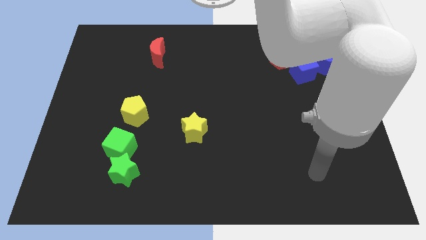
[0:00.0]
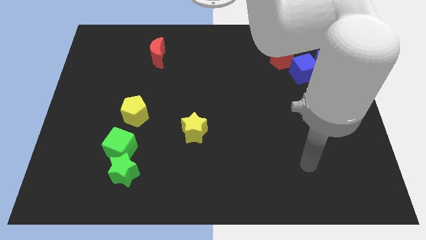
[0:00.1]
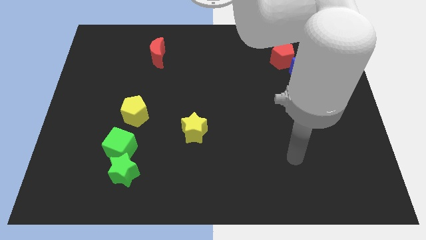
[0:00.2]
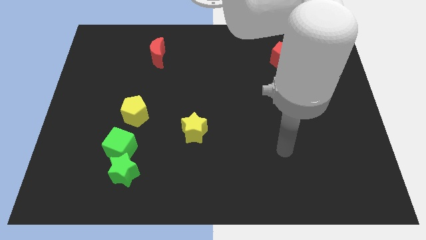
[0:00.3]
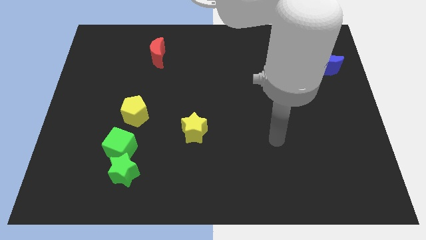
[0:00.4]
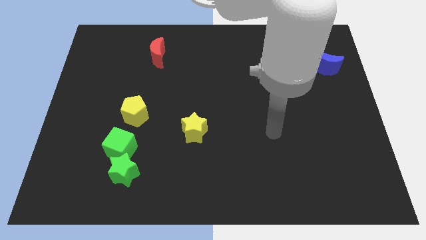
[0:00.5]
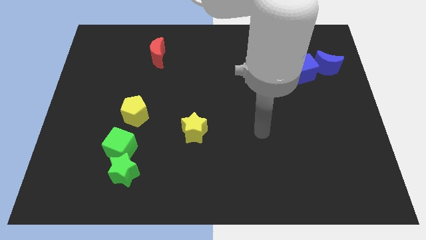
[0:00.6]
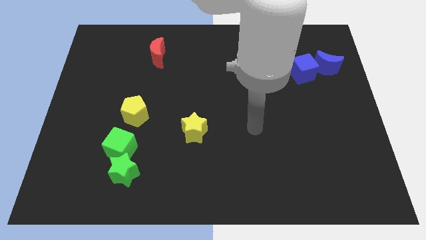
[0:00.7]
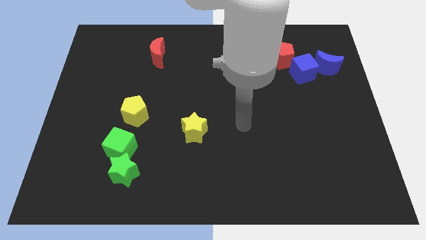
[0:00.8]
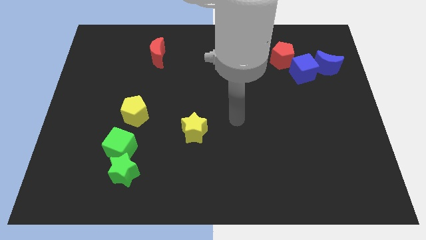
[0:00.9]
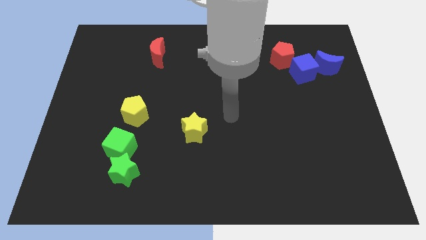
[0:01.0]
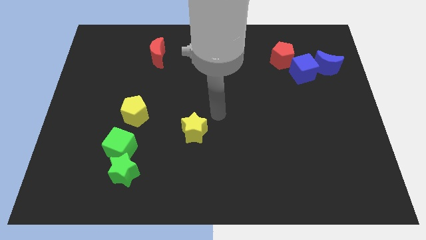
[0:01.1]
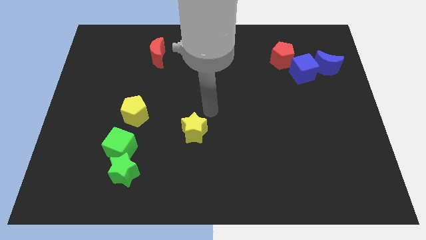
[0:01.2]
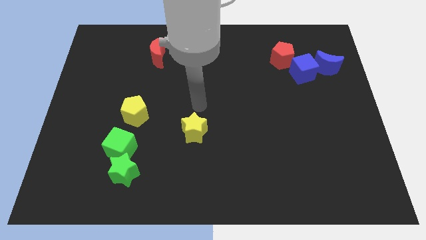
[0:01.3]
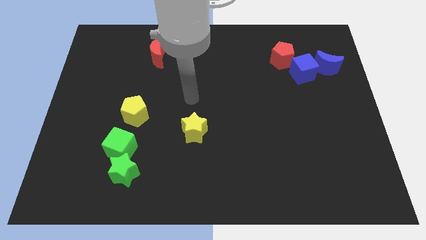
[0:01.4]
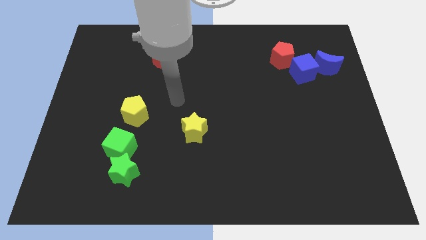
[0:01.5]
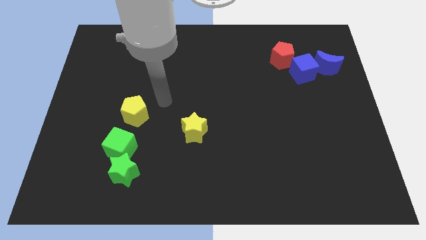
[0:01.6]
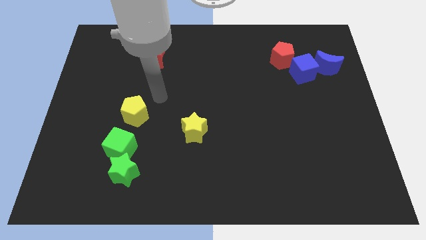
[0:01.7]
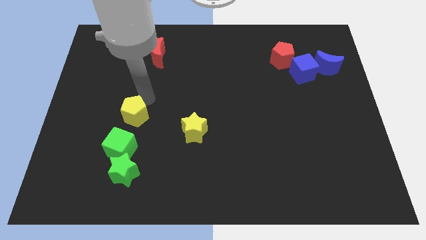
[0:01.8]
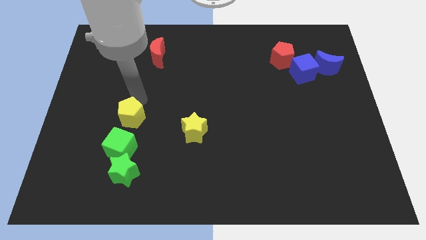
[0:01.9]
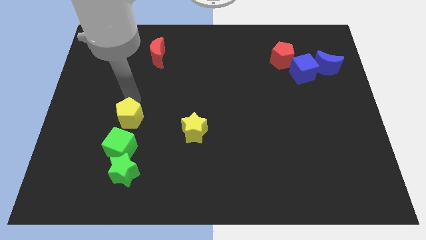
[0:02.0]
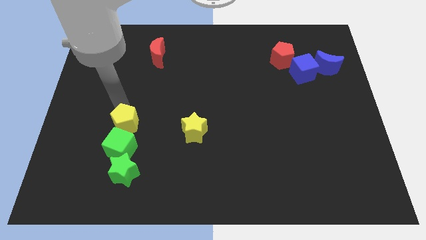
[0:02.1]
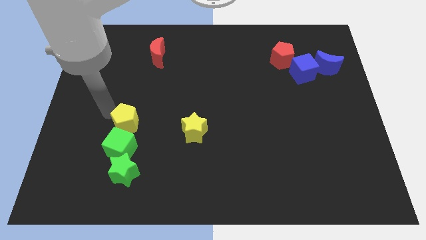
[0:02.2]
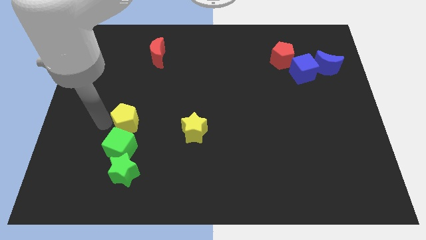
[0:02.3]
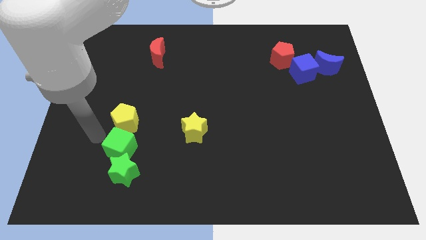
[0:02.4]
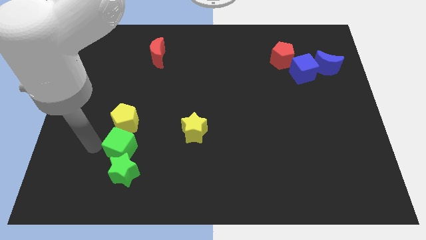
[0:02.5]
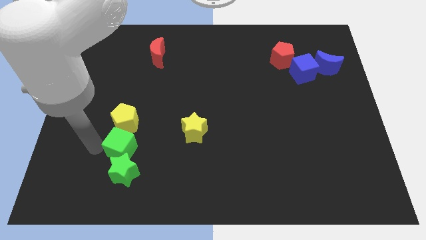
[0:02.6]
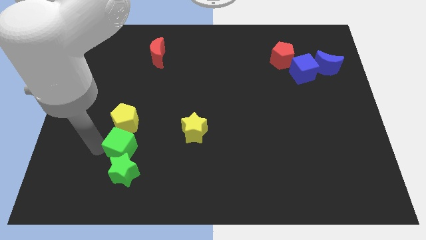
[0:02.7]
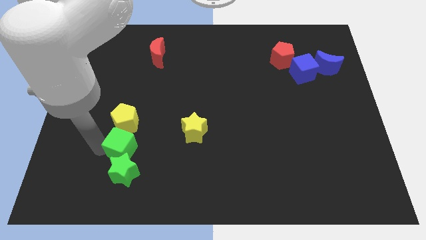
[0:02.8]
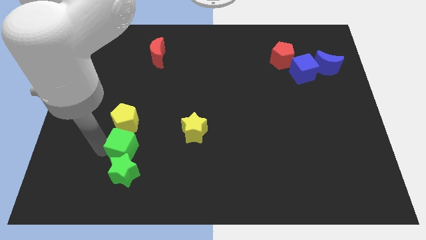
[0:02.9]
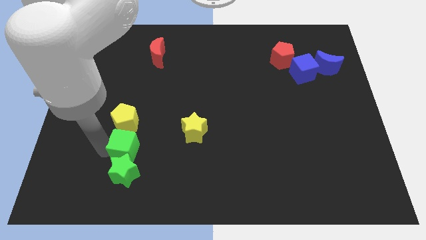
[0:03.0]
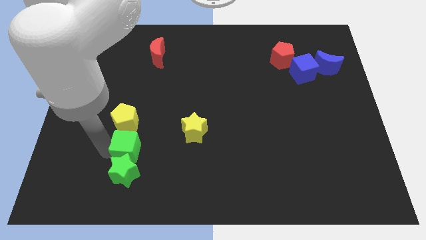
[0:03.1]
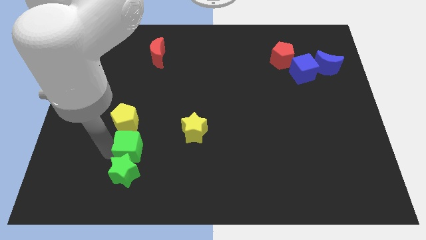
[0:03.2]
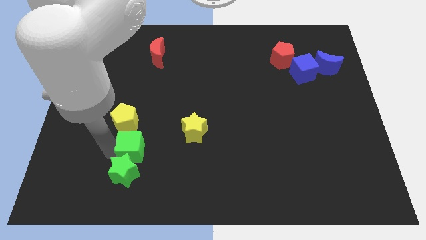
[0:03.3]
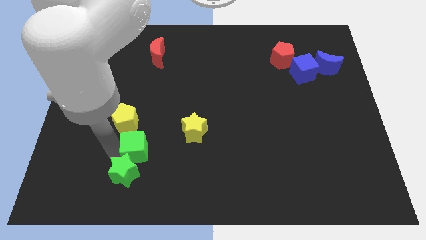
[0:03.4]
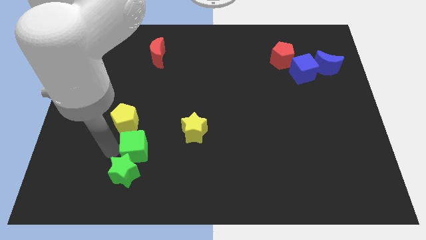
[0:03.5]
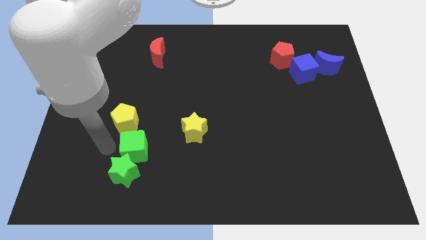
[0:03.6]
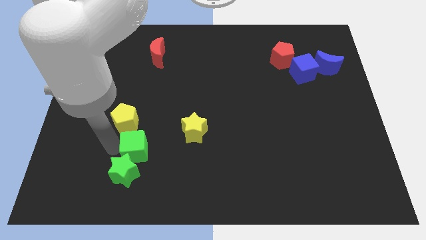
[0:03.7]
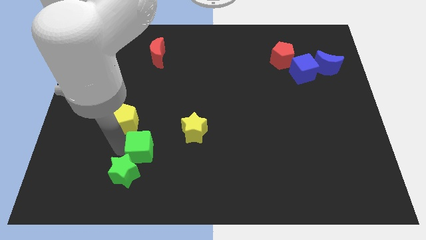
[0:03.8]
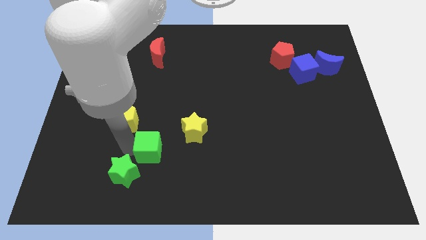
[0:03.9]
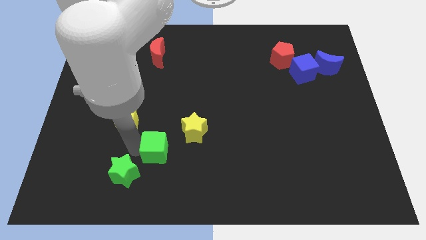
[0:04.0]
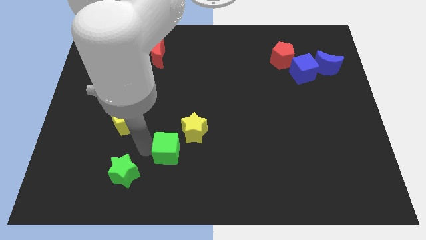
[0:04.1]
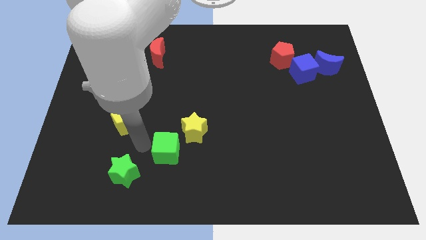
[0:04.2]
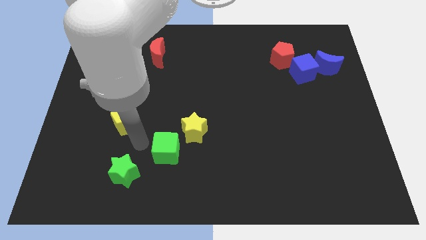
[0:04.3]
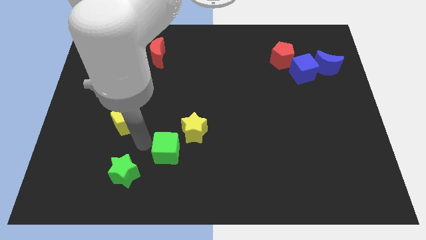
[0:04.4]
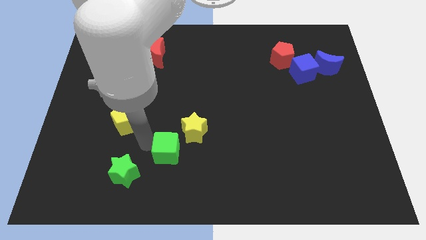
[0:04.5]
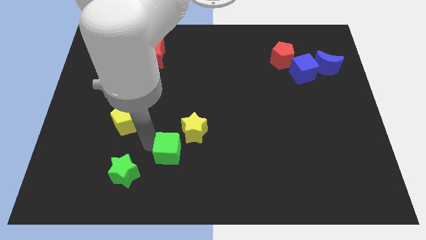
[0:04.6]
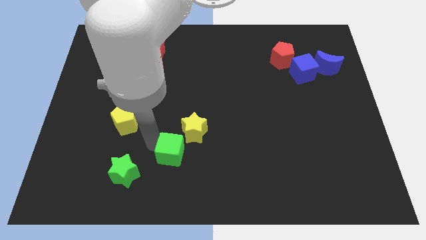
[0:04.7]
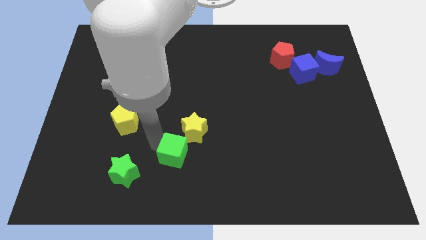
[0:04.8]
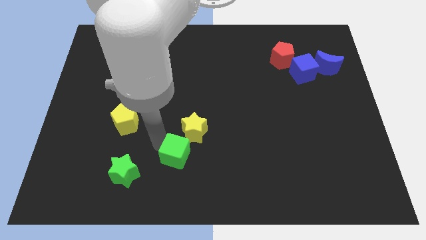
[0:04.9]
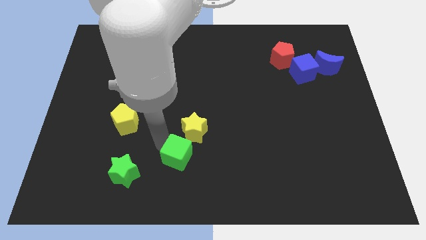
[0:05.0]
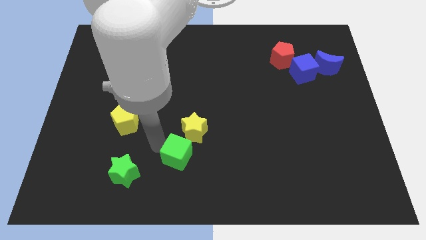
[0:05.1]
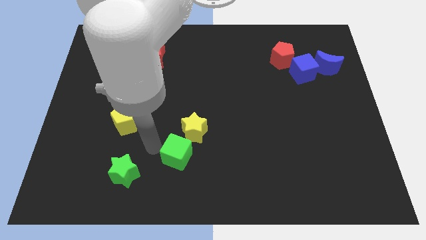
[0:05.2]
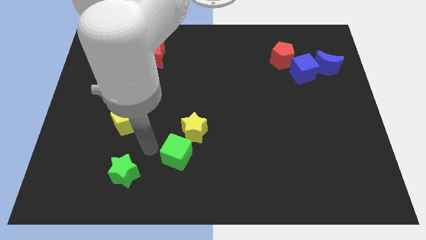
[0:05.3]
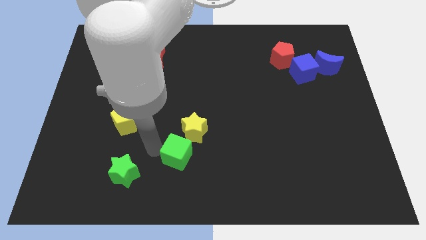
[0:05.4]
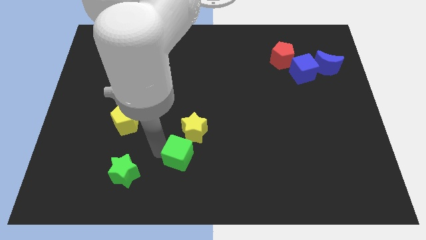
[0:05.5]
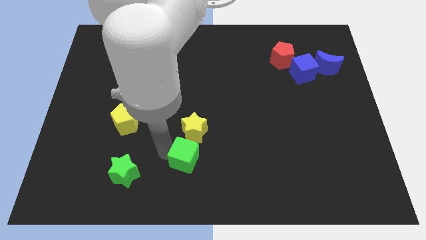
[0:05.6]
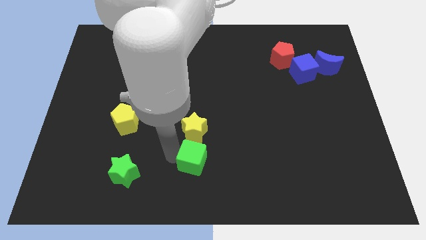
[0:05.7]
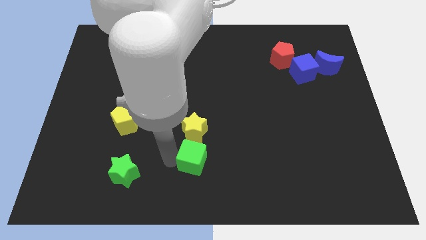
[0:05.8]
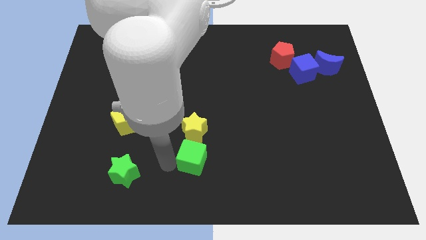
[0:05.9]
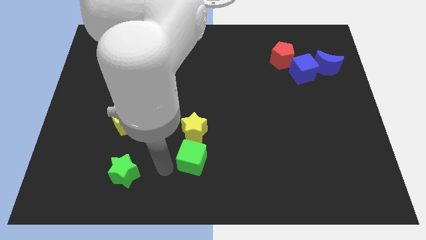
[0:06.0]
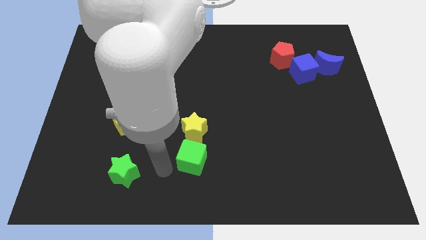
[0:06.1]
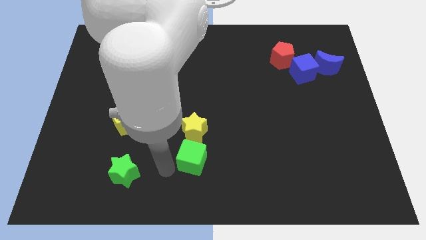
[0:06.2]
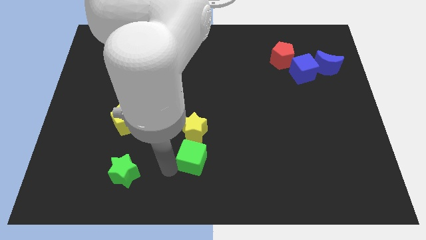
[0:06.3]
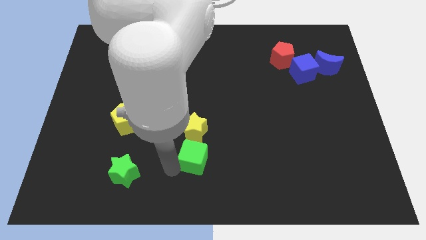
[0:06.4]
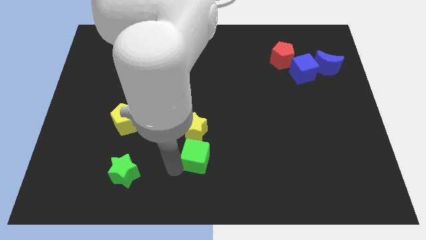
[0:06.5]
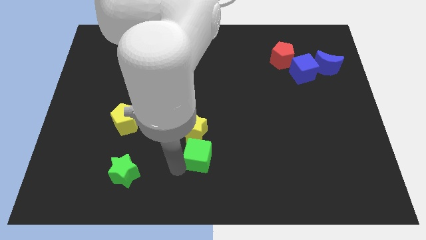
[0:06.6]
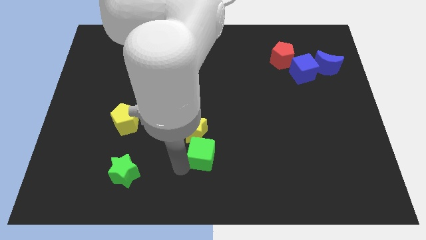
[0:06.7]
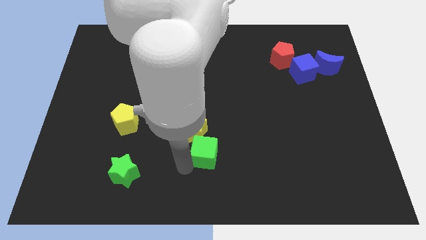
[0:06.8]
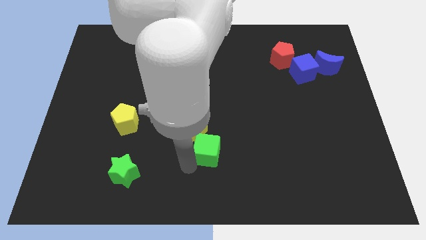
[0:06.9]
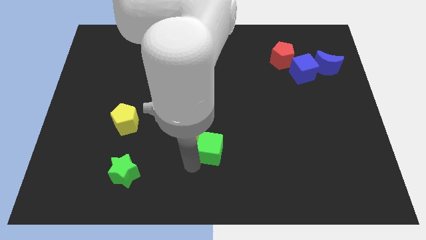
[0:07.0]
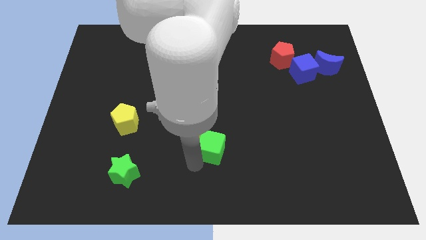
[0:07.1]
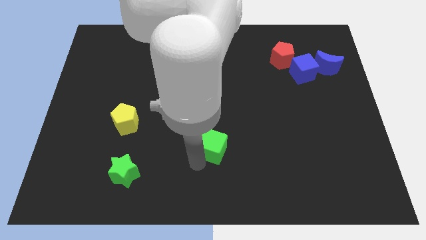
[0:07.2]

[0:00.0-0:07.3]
push the green cube to the right

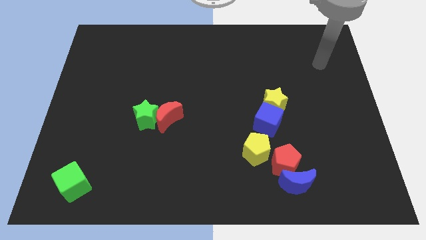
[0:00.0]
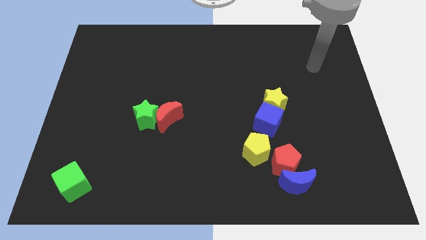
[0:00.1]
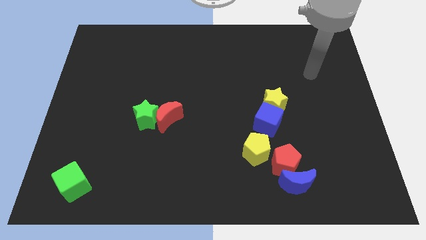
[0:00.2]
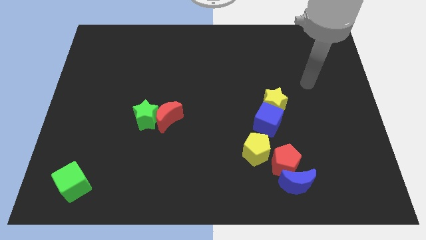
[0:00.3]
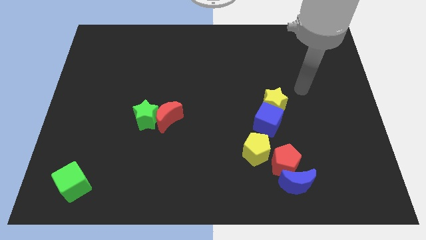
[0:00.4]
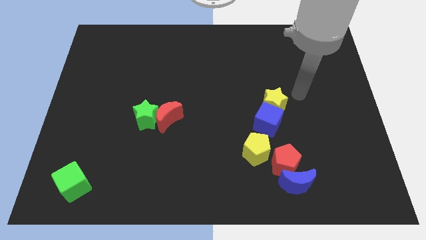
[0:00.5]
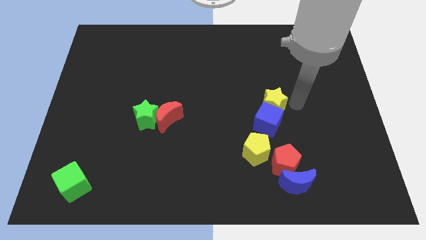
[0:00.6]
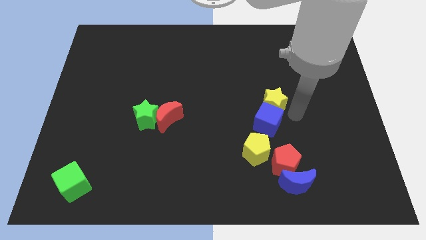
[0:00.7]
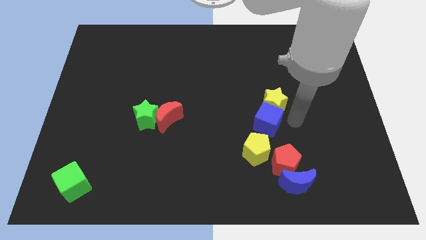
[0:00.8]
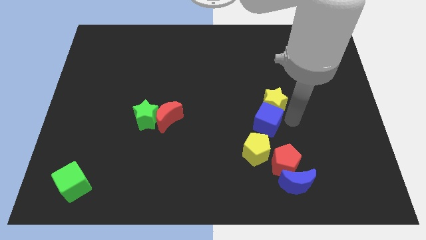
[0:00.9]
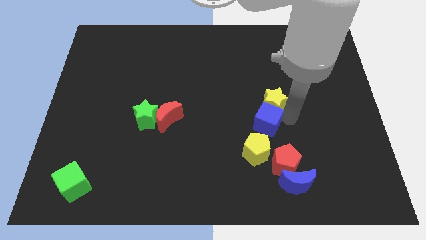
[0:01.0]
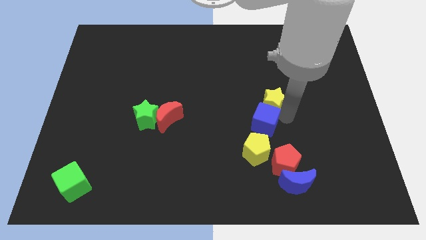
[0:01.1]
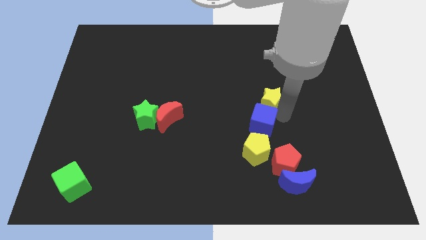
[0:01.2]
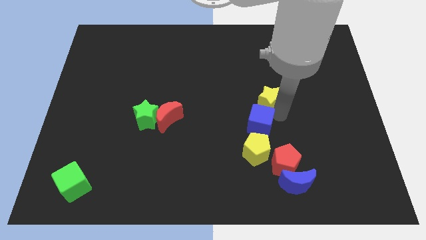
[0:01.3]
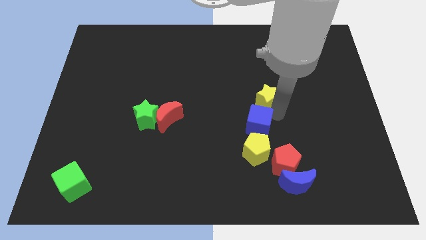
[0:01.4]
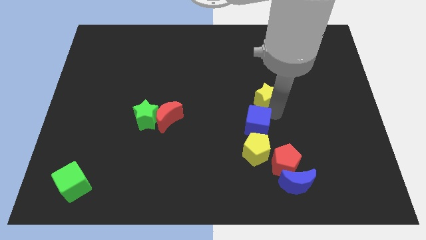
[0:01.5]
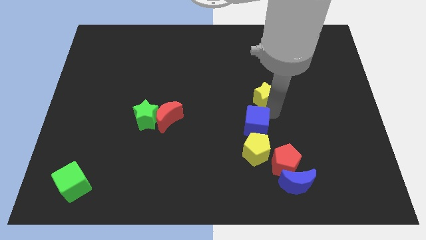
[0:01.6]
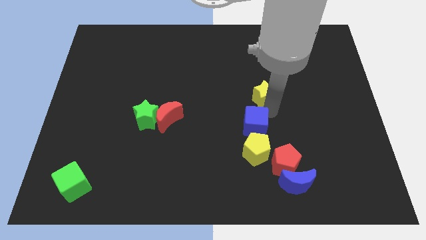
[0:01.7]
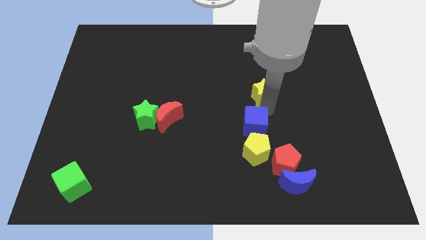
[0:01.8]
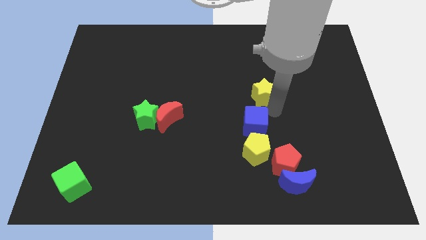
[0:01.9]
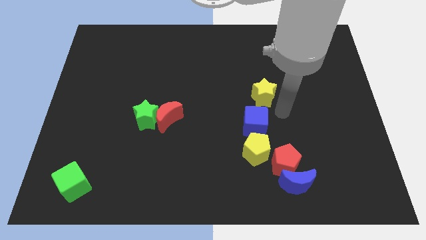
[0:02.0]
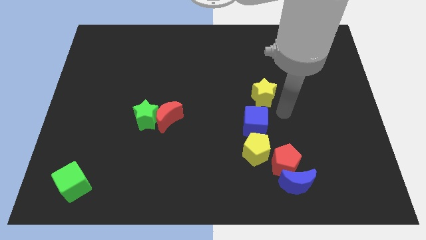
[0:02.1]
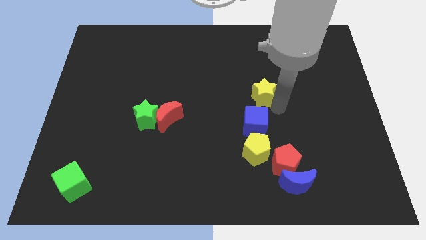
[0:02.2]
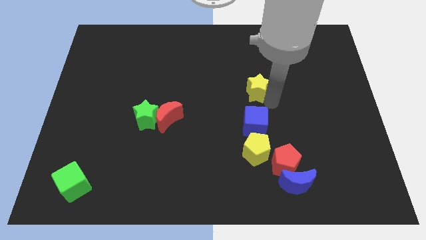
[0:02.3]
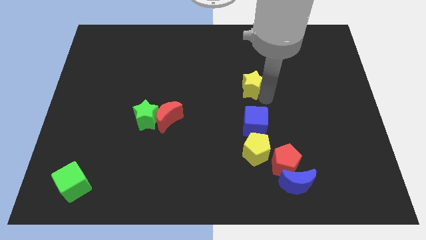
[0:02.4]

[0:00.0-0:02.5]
slightly slide the yellow star up and left diagonally
